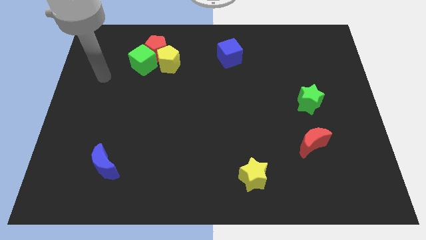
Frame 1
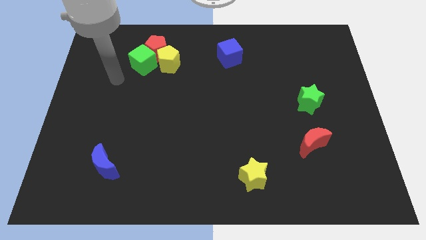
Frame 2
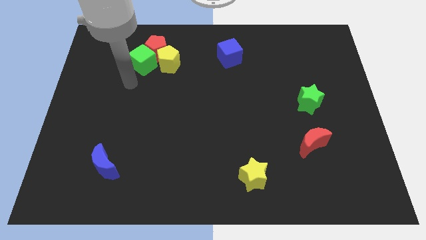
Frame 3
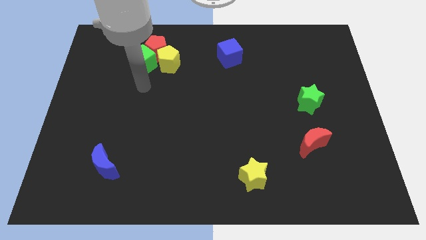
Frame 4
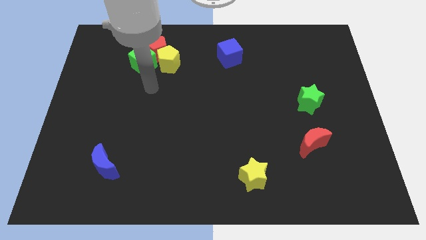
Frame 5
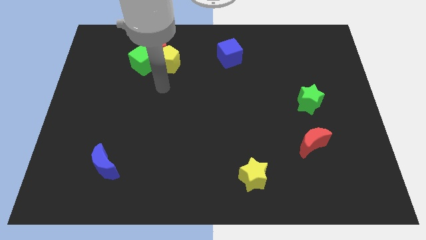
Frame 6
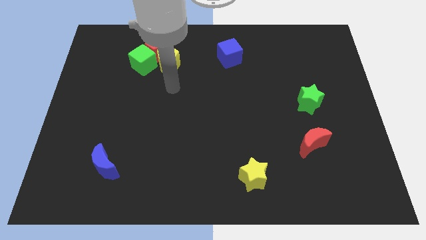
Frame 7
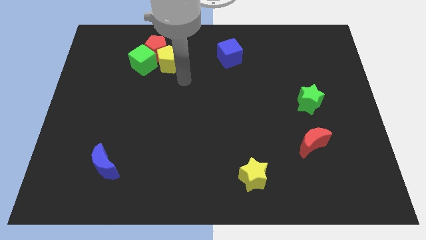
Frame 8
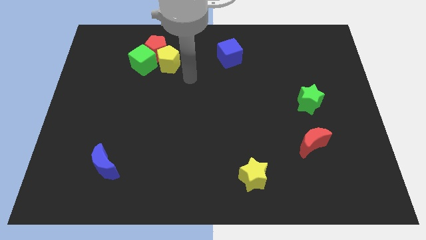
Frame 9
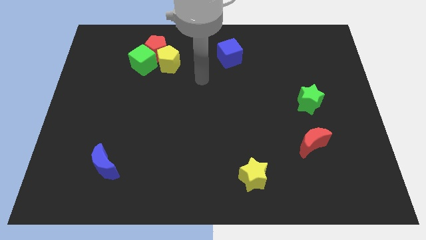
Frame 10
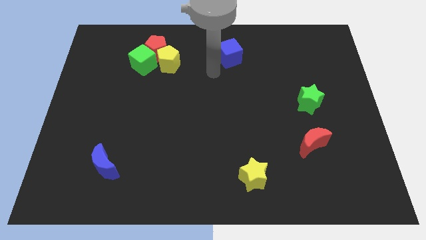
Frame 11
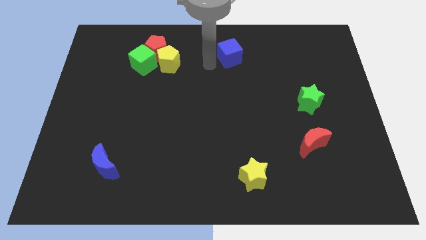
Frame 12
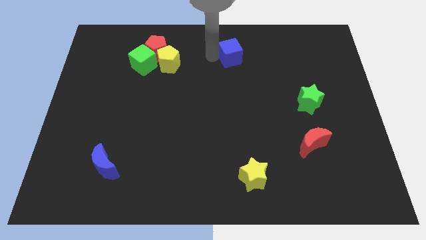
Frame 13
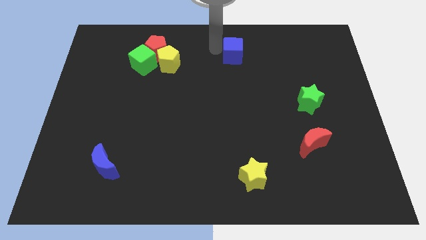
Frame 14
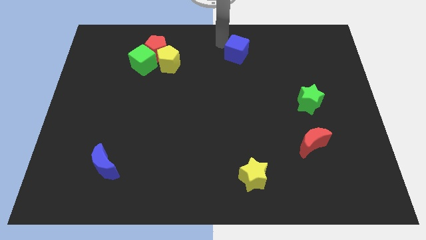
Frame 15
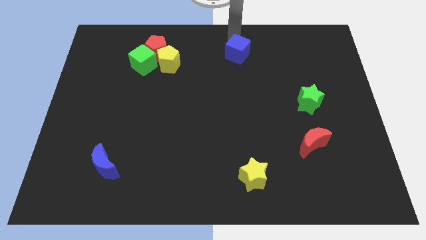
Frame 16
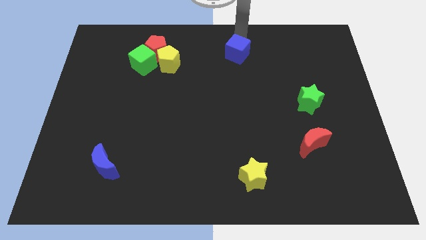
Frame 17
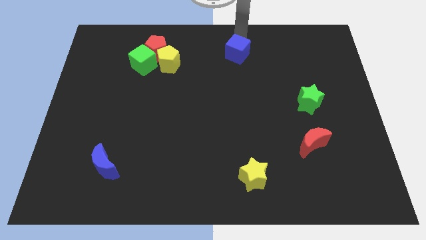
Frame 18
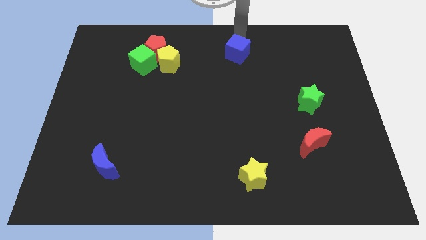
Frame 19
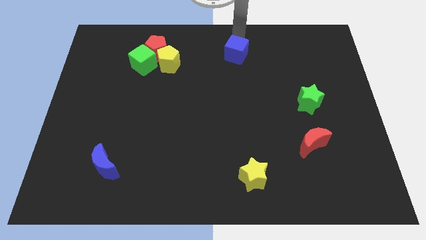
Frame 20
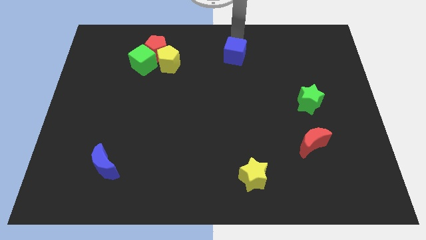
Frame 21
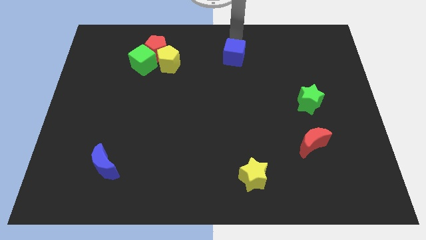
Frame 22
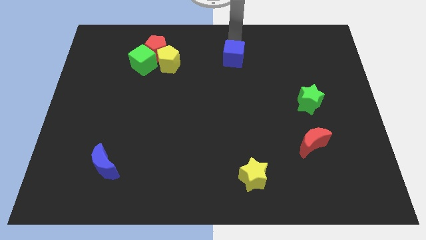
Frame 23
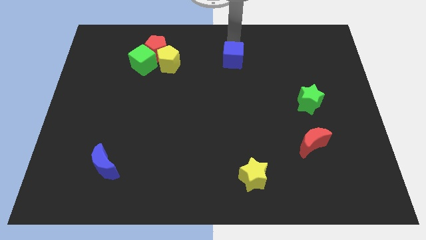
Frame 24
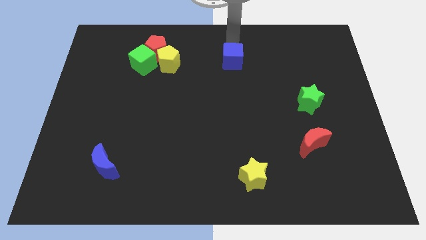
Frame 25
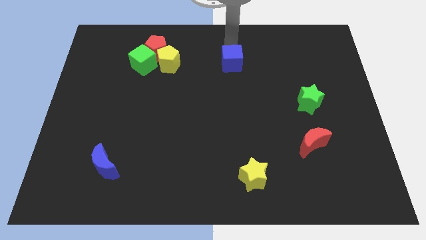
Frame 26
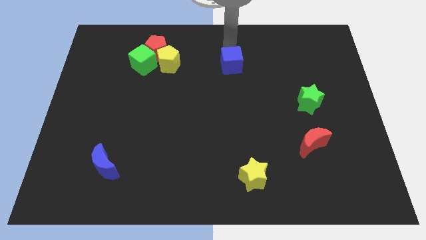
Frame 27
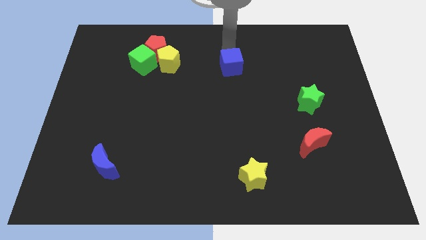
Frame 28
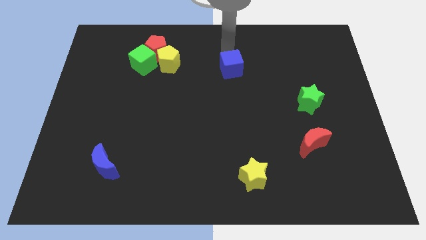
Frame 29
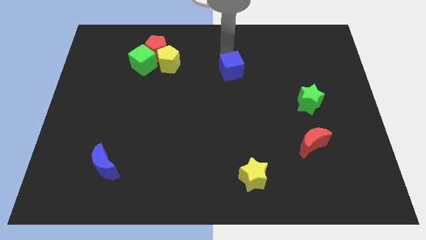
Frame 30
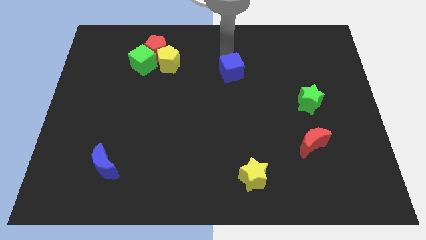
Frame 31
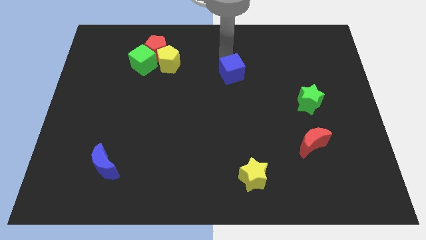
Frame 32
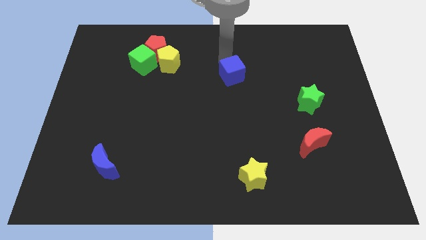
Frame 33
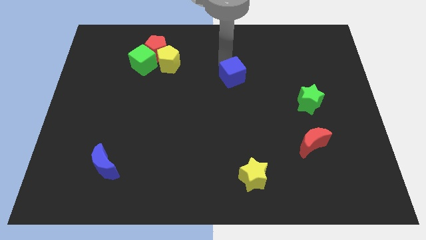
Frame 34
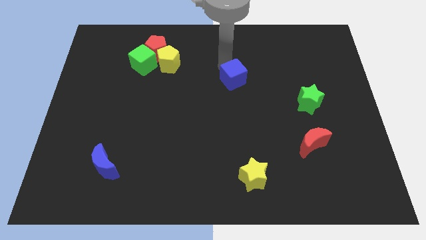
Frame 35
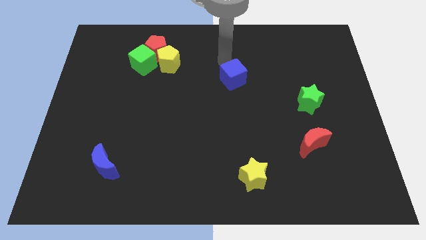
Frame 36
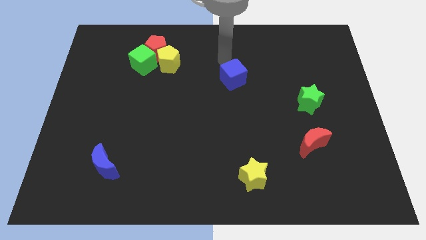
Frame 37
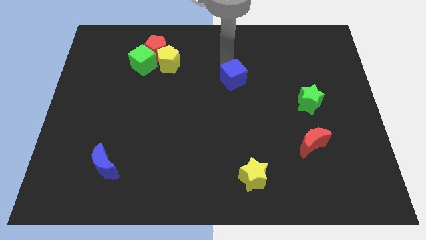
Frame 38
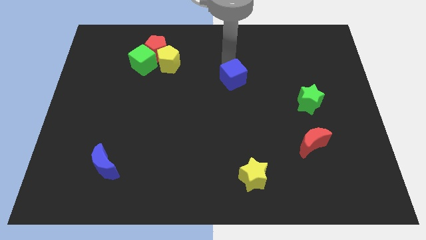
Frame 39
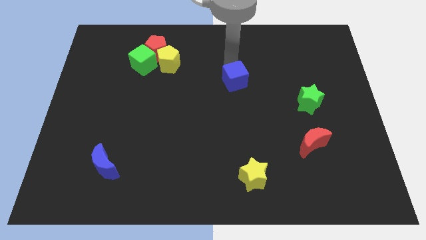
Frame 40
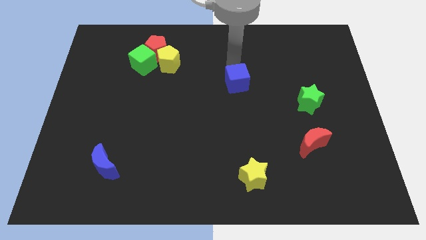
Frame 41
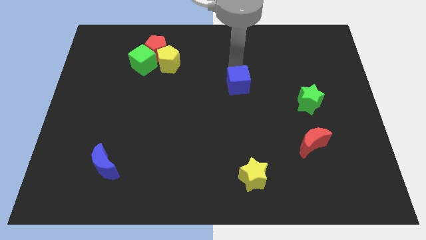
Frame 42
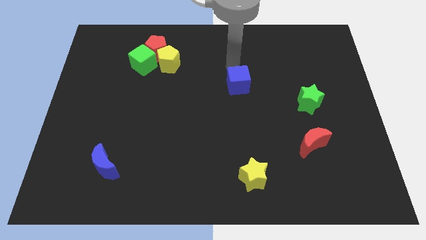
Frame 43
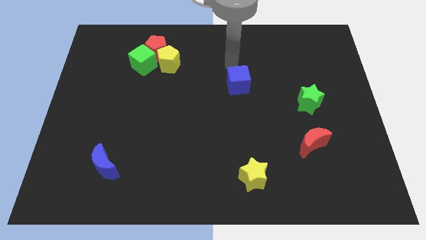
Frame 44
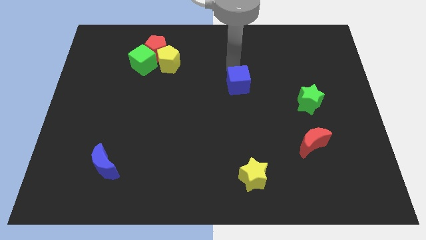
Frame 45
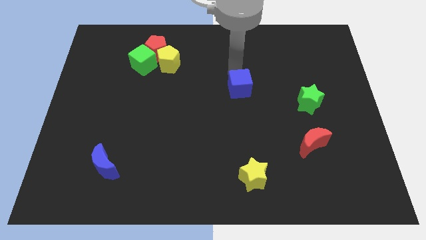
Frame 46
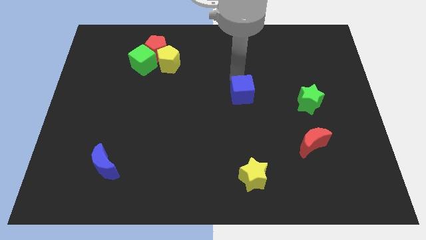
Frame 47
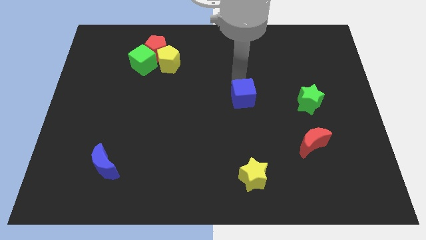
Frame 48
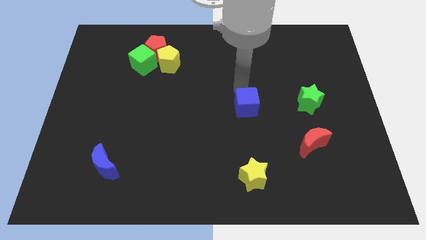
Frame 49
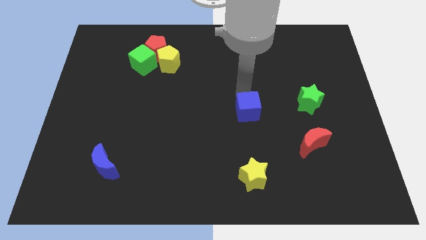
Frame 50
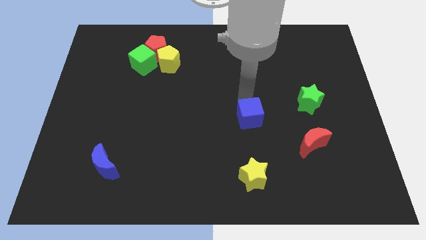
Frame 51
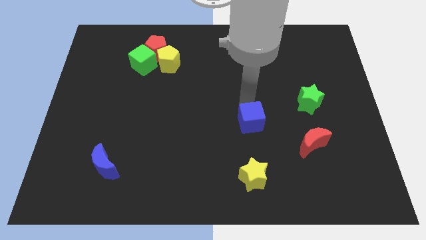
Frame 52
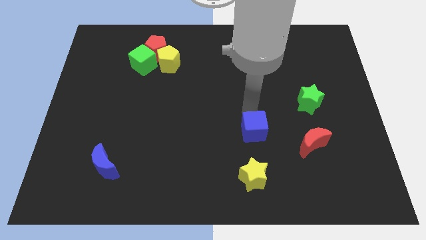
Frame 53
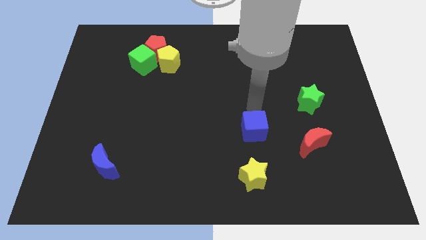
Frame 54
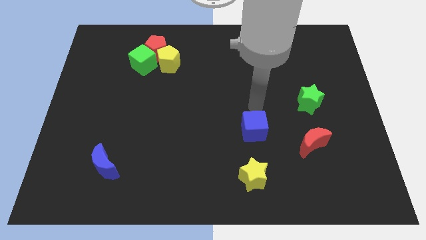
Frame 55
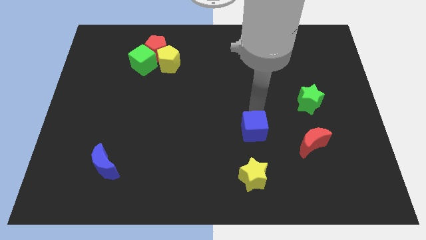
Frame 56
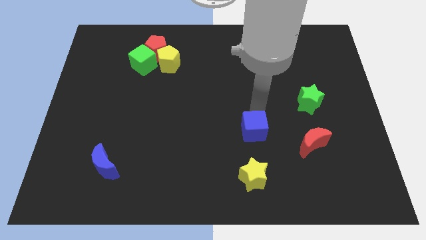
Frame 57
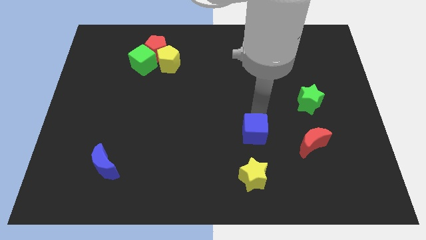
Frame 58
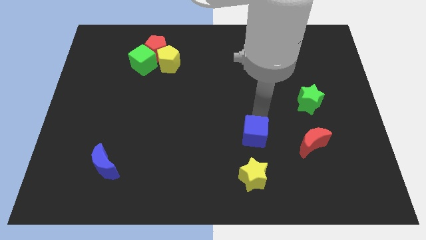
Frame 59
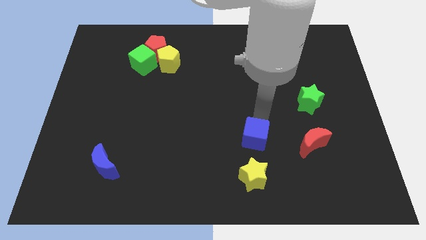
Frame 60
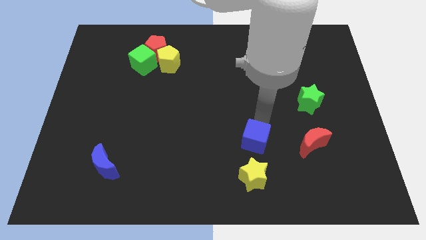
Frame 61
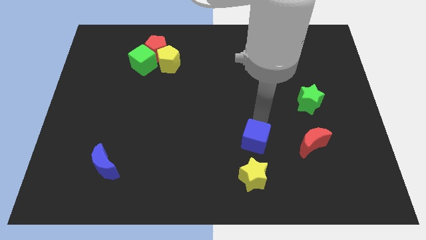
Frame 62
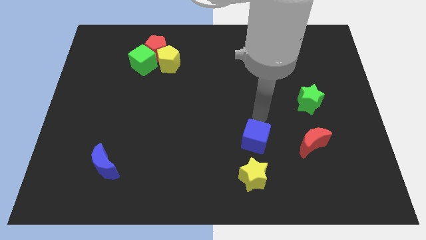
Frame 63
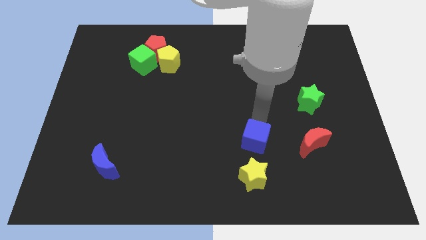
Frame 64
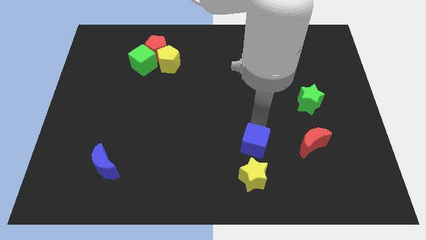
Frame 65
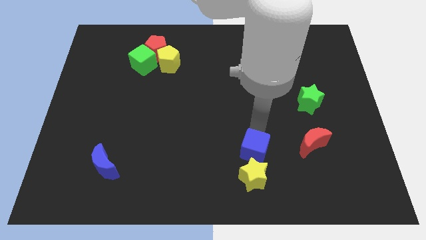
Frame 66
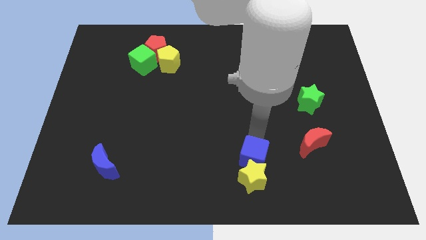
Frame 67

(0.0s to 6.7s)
move the blue cube towards the yellow star

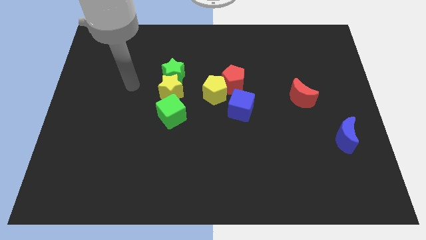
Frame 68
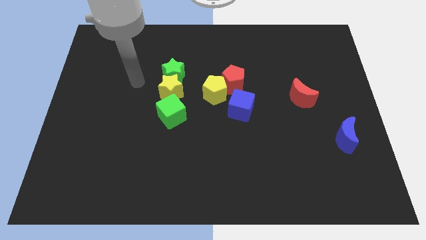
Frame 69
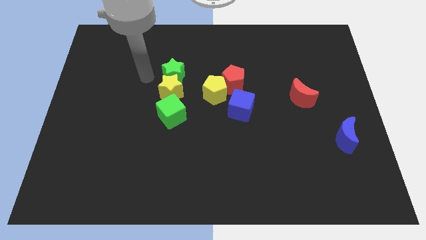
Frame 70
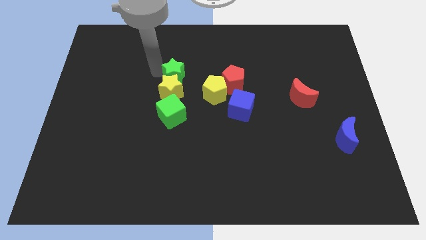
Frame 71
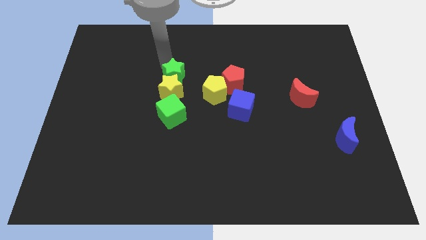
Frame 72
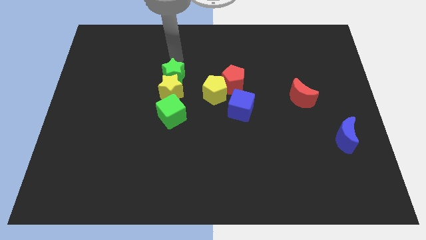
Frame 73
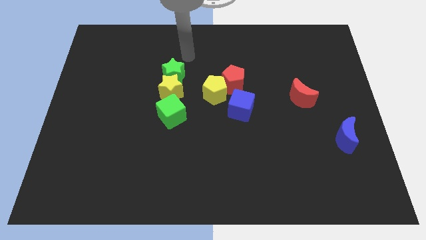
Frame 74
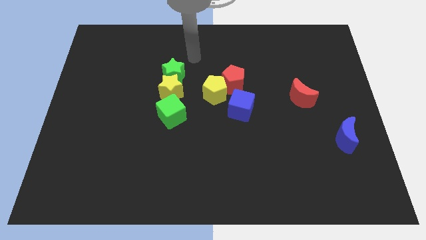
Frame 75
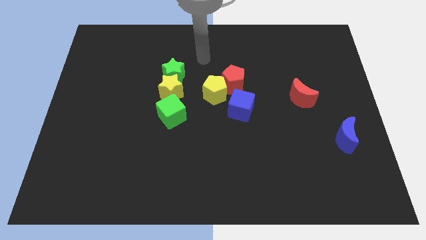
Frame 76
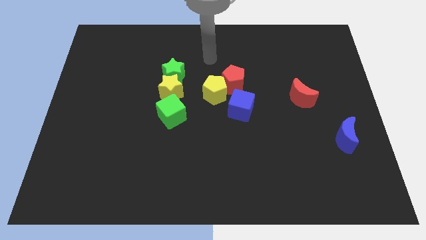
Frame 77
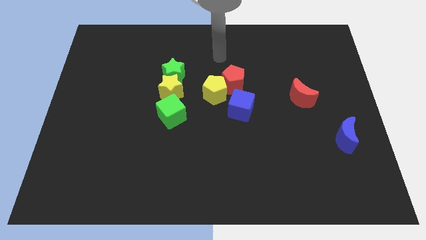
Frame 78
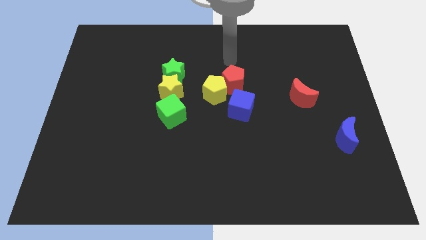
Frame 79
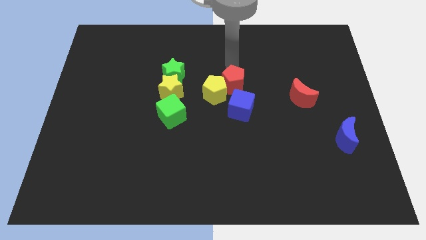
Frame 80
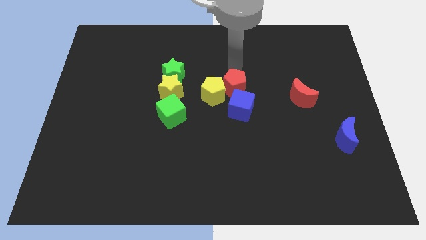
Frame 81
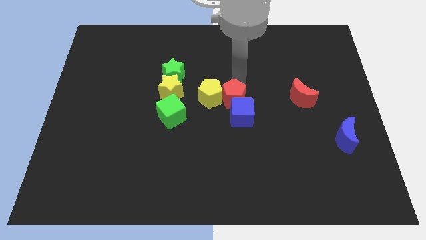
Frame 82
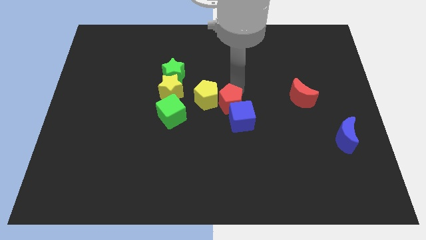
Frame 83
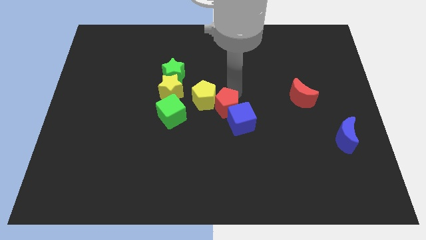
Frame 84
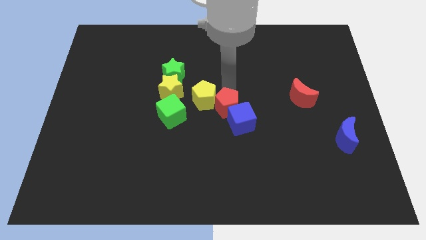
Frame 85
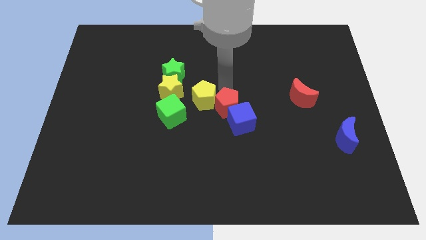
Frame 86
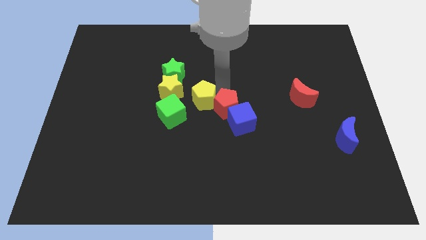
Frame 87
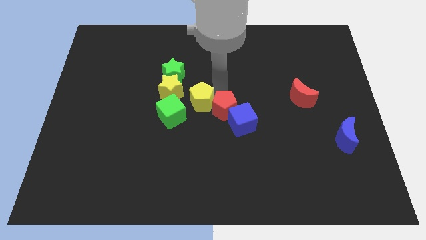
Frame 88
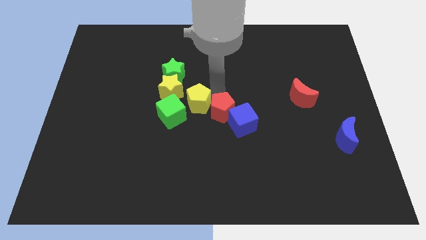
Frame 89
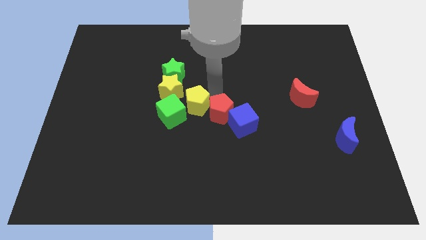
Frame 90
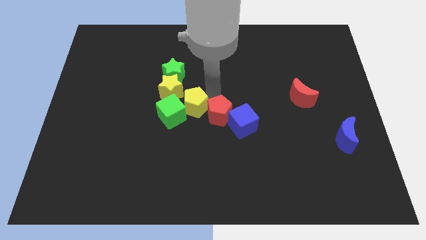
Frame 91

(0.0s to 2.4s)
put the yellow pentagon towards the green cube
